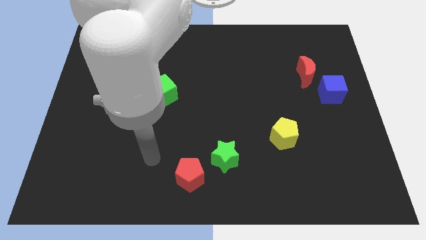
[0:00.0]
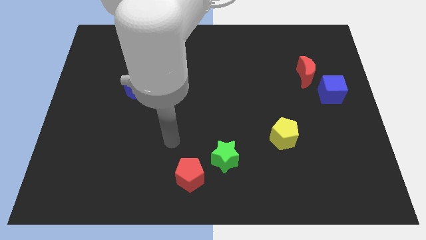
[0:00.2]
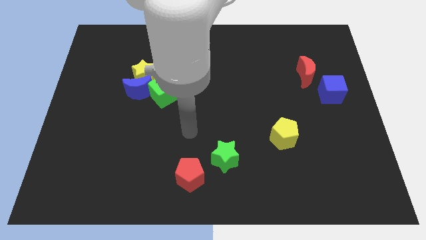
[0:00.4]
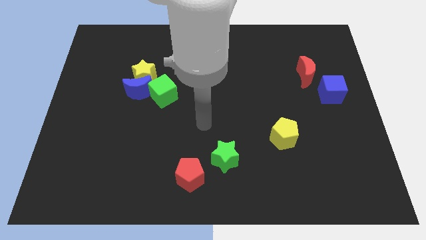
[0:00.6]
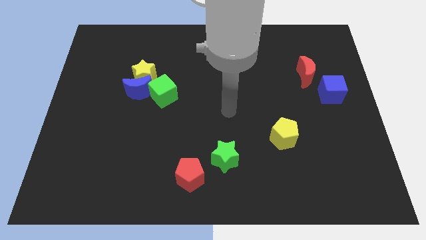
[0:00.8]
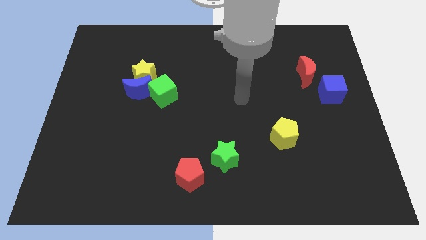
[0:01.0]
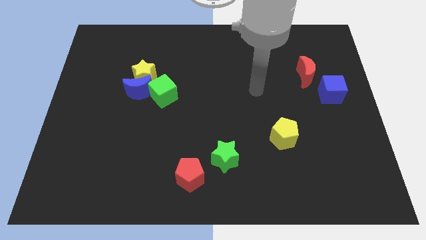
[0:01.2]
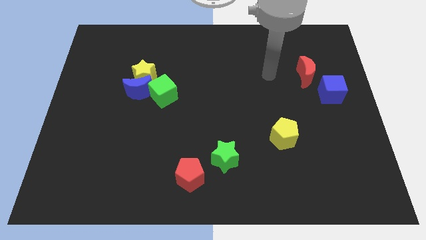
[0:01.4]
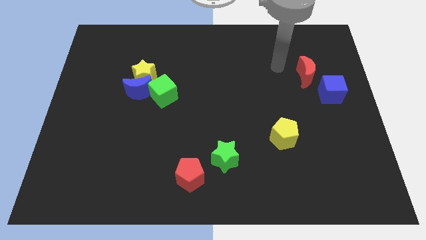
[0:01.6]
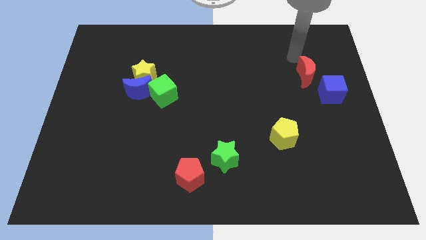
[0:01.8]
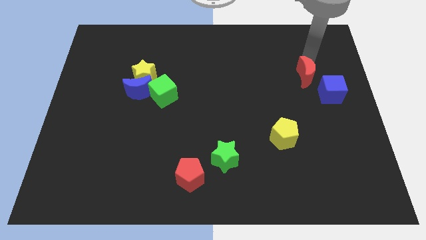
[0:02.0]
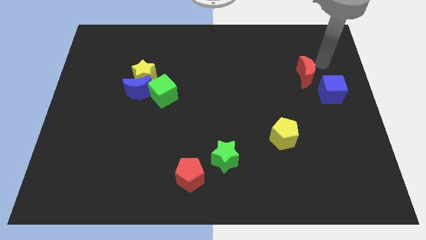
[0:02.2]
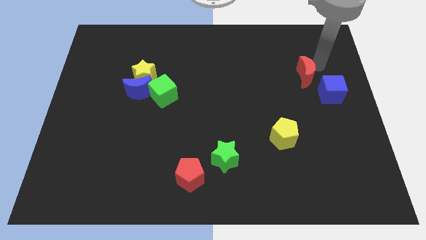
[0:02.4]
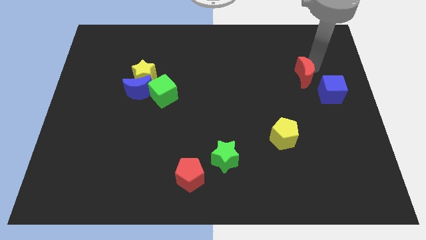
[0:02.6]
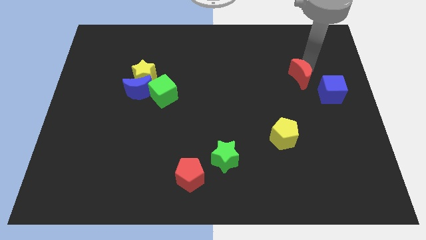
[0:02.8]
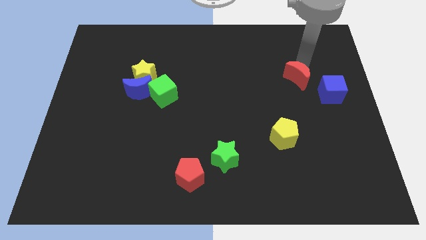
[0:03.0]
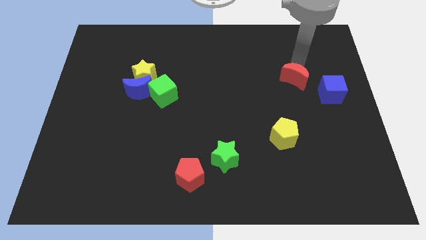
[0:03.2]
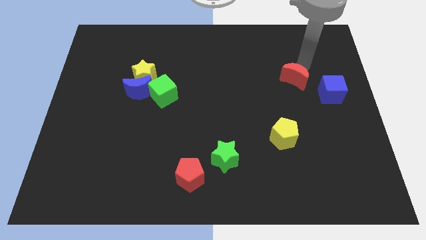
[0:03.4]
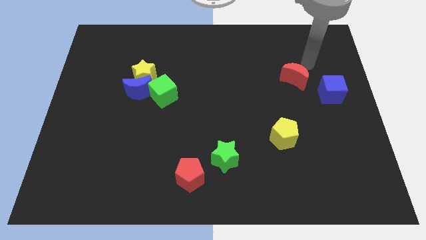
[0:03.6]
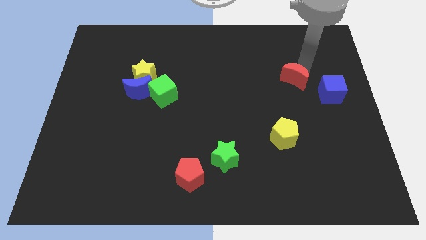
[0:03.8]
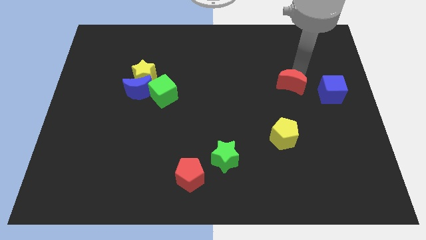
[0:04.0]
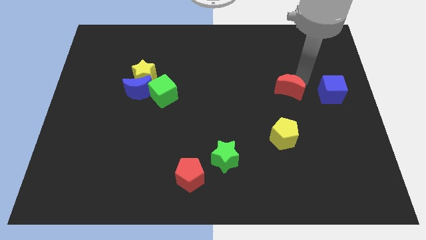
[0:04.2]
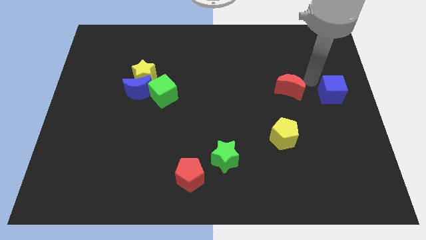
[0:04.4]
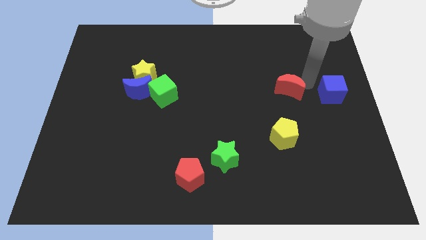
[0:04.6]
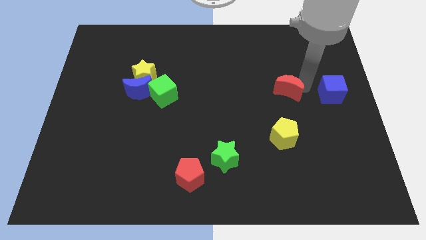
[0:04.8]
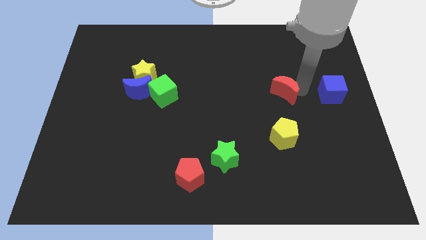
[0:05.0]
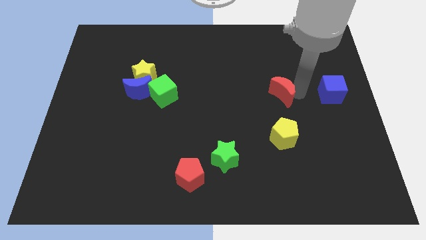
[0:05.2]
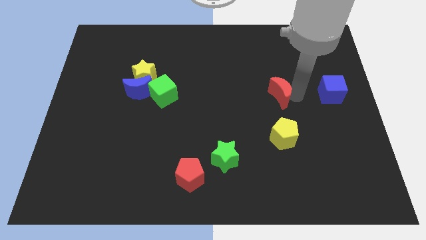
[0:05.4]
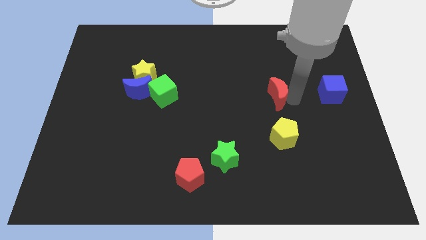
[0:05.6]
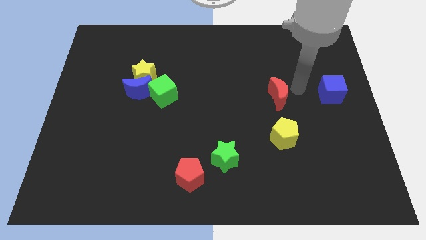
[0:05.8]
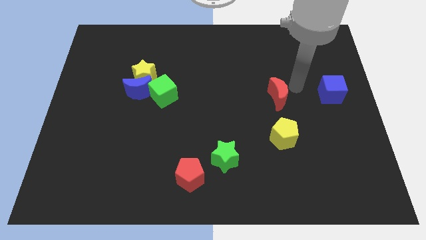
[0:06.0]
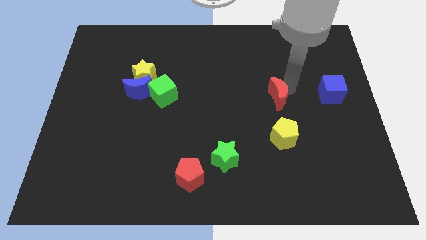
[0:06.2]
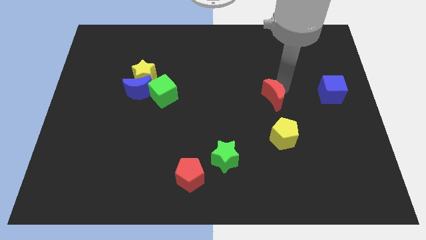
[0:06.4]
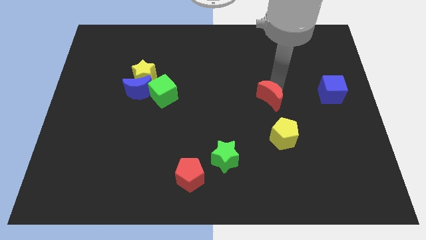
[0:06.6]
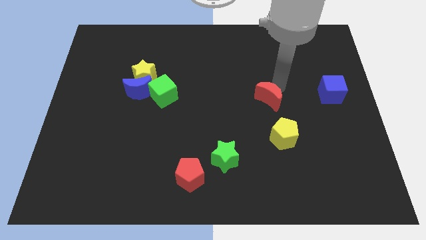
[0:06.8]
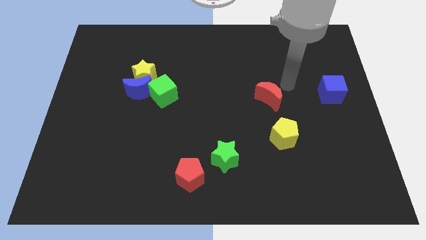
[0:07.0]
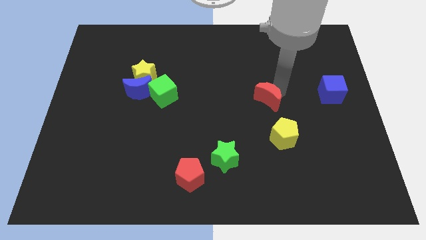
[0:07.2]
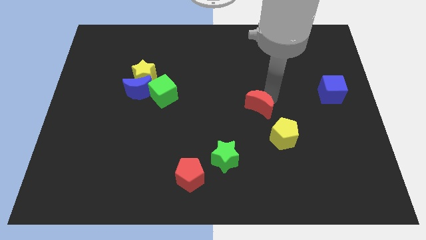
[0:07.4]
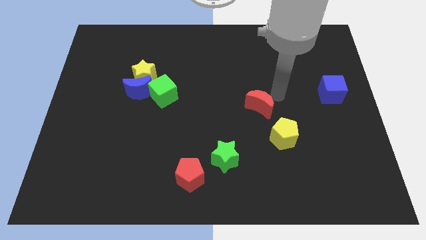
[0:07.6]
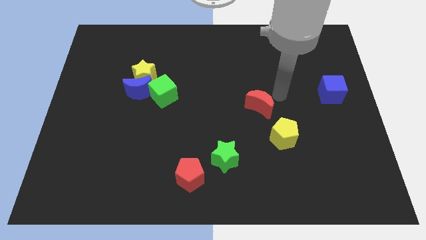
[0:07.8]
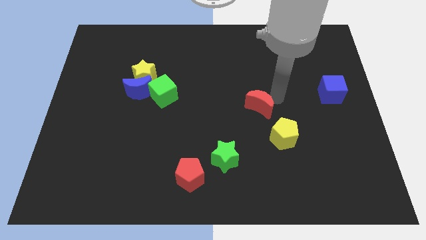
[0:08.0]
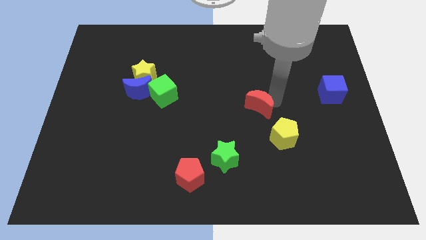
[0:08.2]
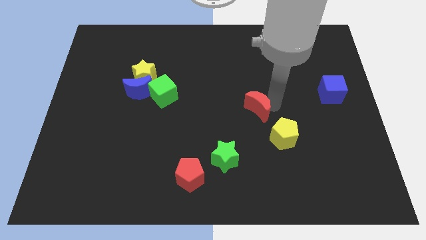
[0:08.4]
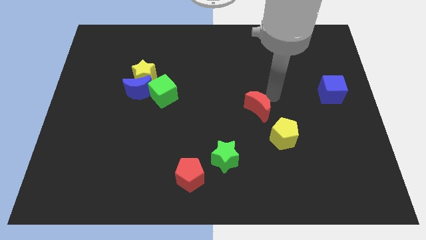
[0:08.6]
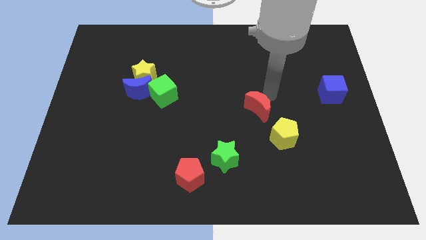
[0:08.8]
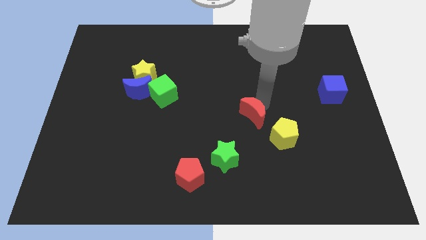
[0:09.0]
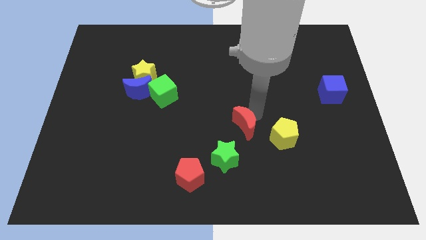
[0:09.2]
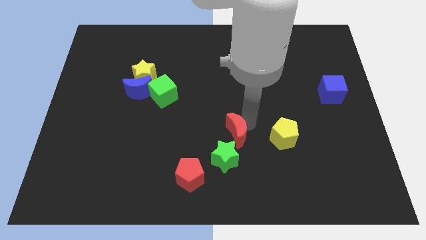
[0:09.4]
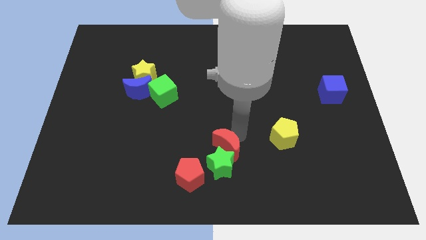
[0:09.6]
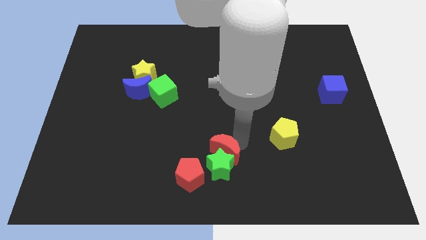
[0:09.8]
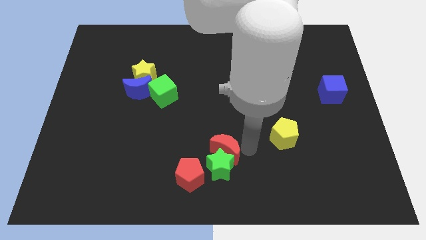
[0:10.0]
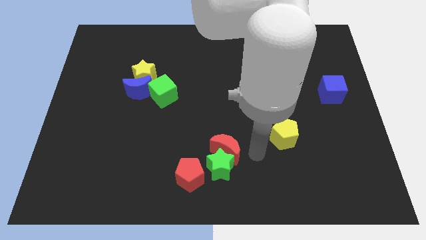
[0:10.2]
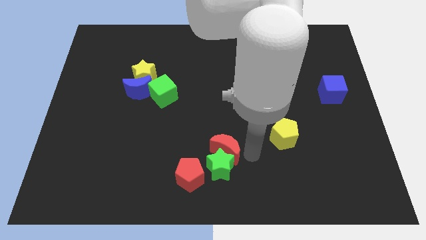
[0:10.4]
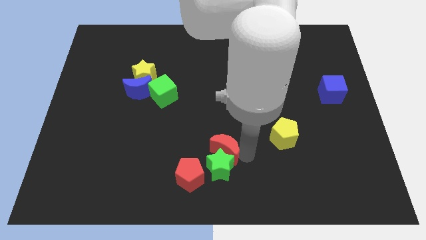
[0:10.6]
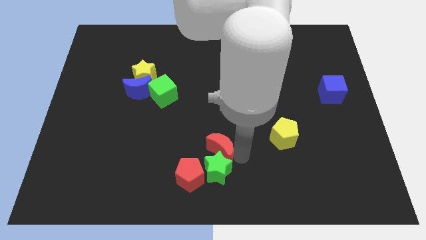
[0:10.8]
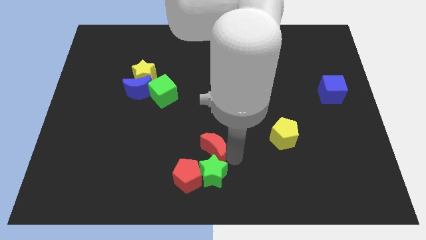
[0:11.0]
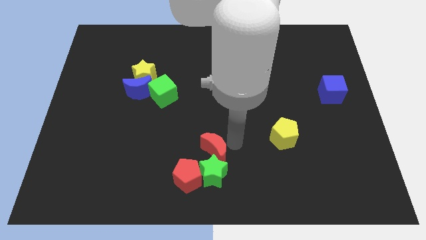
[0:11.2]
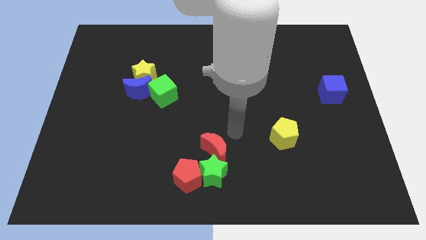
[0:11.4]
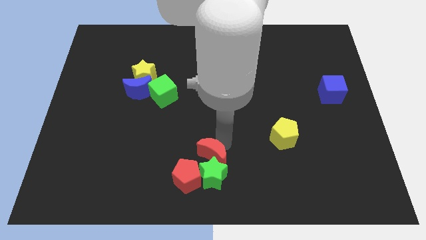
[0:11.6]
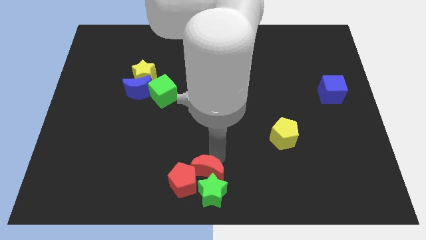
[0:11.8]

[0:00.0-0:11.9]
push the red moon to the red pentagon

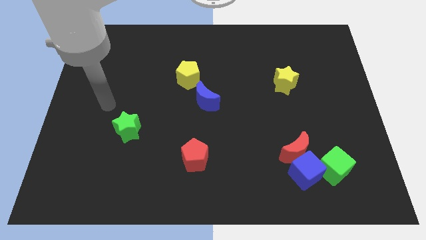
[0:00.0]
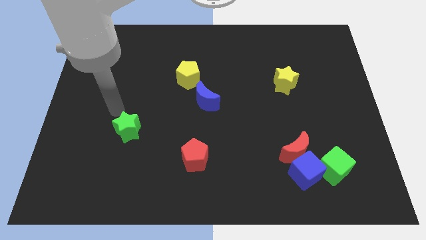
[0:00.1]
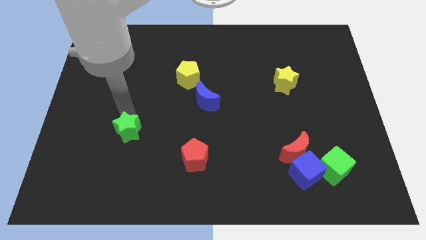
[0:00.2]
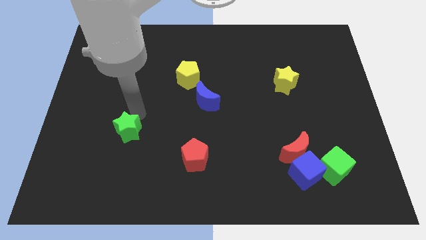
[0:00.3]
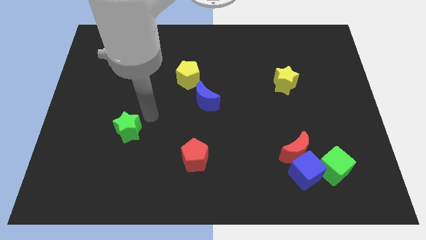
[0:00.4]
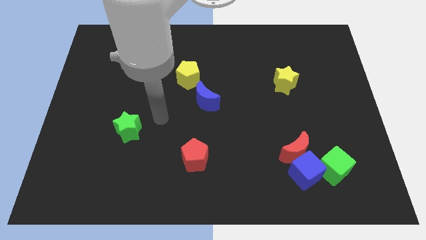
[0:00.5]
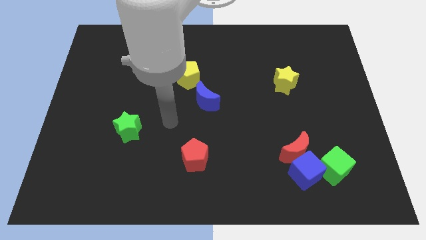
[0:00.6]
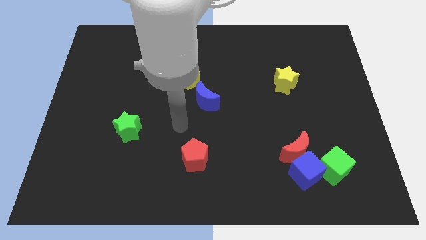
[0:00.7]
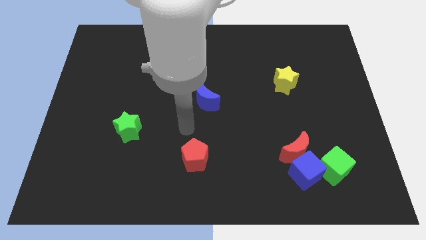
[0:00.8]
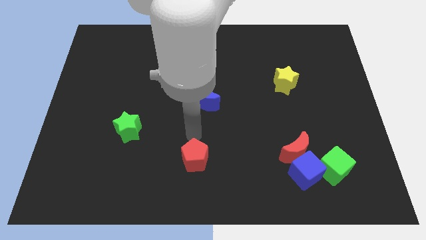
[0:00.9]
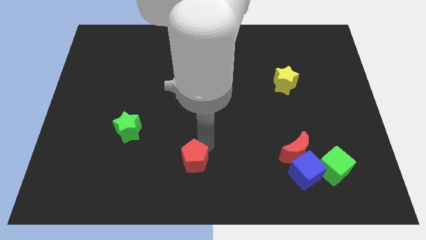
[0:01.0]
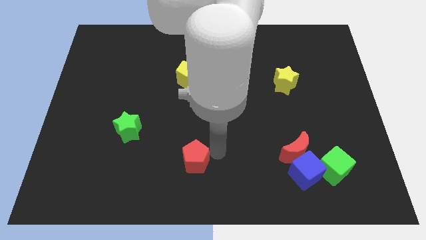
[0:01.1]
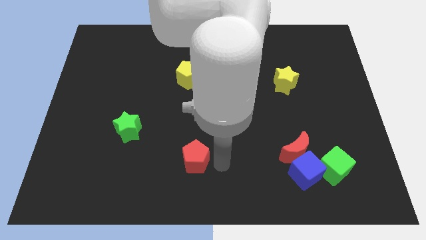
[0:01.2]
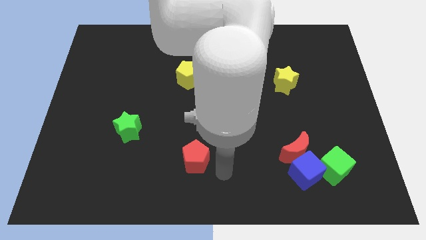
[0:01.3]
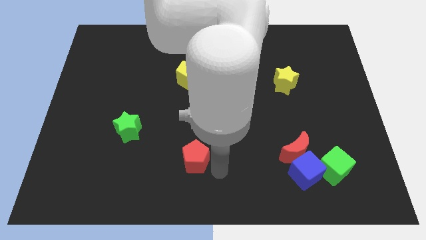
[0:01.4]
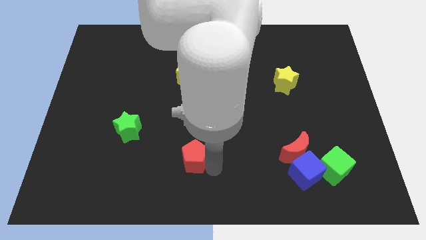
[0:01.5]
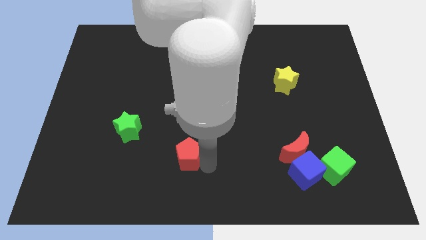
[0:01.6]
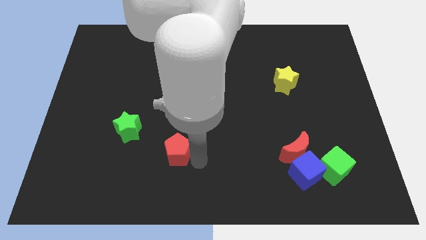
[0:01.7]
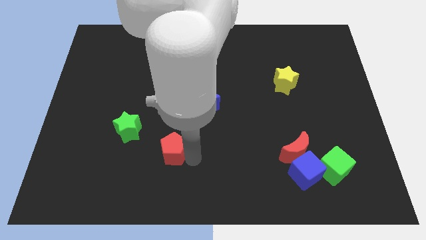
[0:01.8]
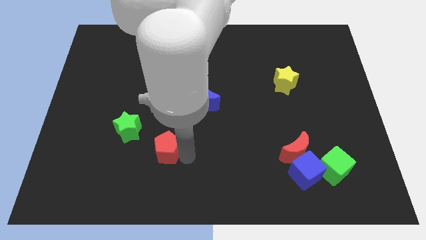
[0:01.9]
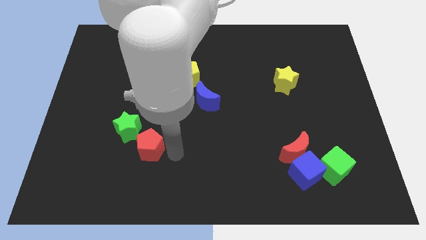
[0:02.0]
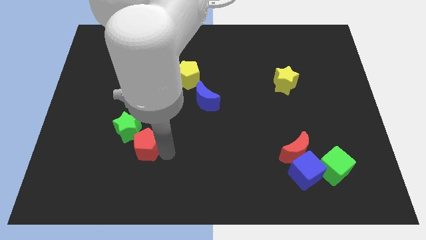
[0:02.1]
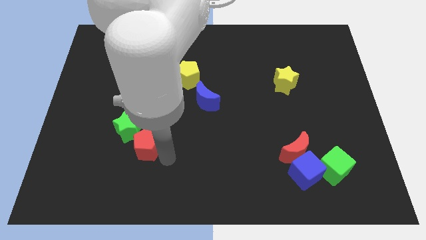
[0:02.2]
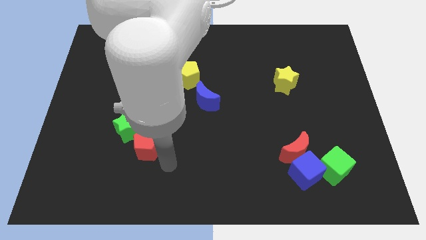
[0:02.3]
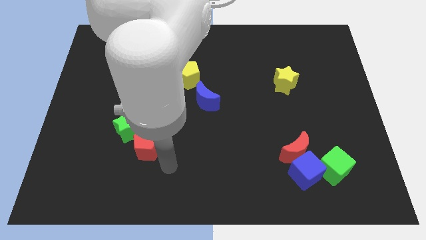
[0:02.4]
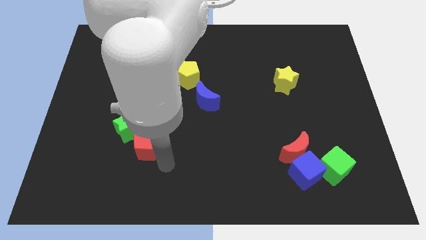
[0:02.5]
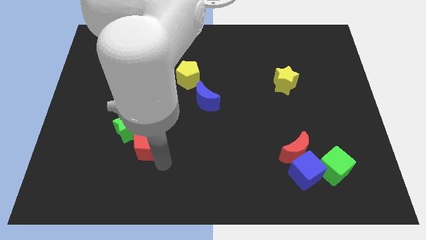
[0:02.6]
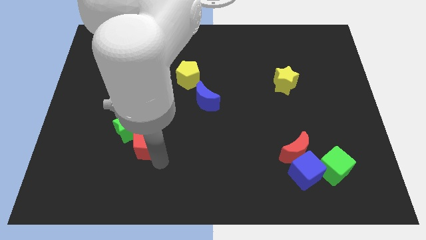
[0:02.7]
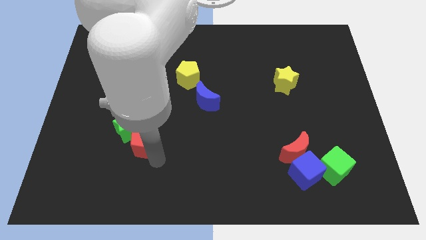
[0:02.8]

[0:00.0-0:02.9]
push the red pentagon towards the green star
